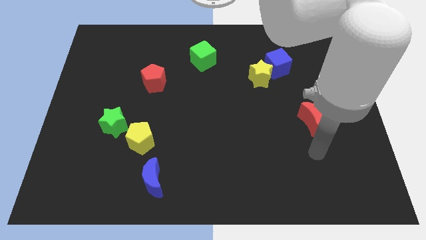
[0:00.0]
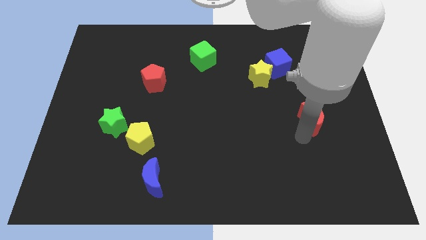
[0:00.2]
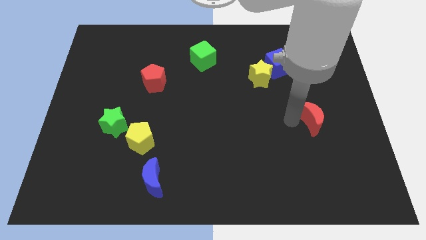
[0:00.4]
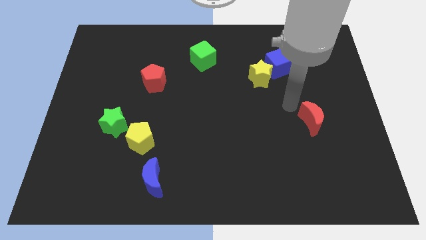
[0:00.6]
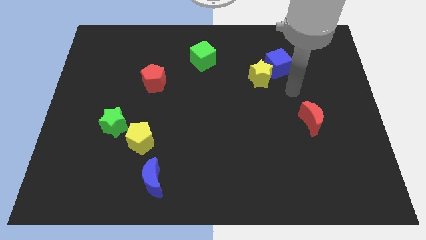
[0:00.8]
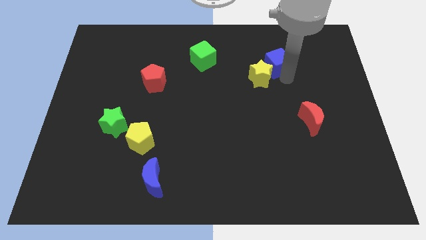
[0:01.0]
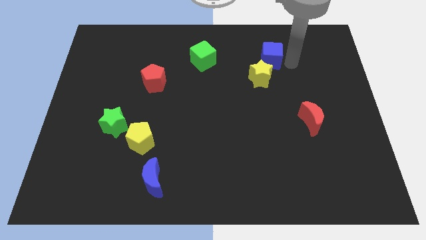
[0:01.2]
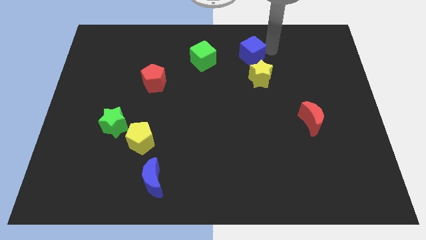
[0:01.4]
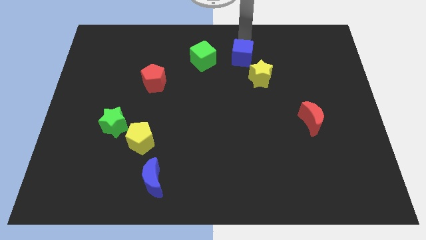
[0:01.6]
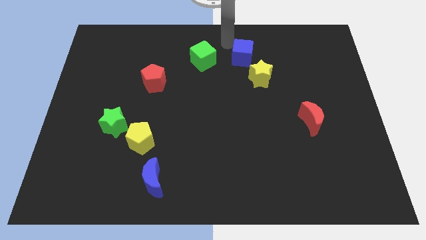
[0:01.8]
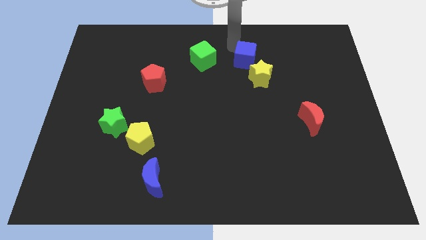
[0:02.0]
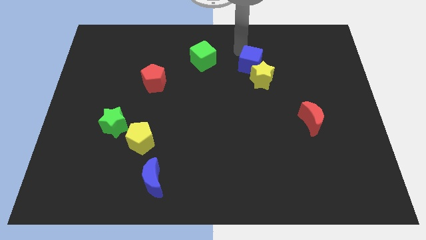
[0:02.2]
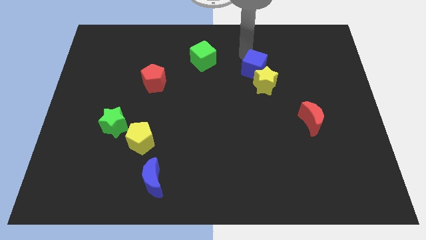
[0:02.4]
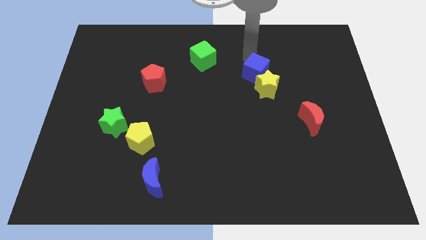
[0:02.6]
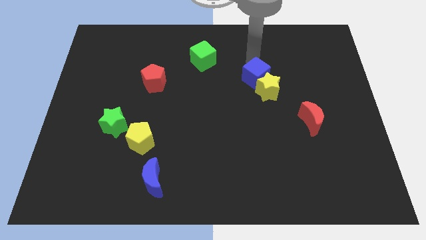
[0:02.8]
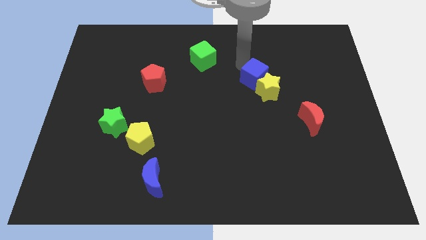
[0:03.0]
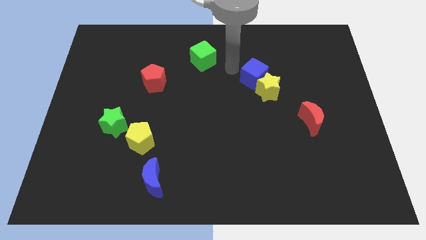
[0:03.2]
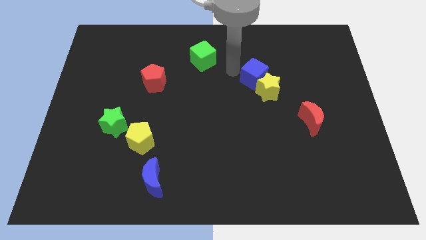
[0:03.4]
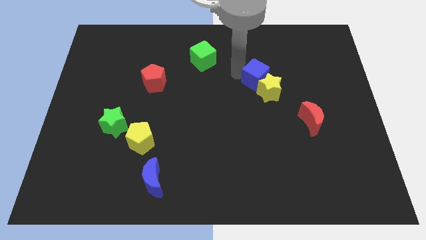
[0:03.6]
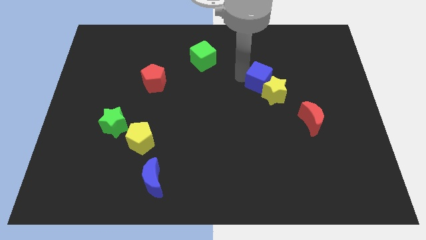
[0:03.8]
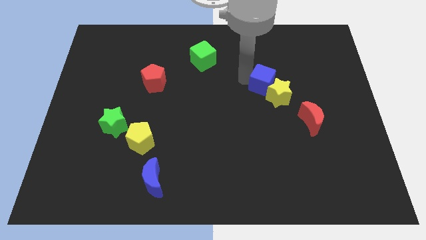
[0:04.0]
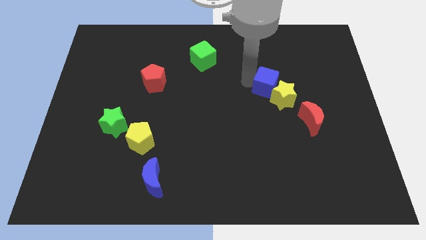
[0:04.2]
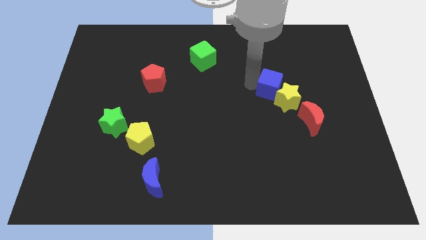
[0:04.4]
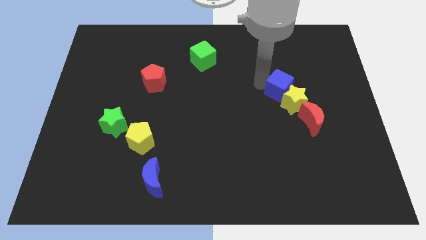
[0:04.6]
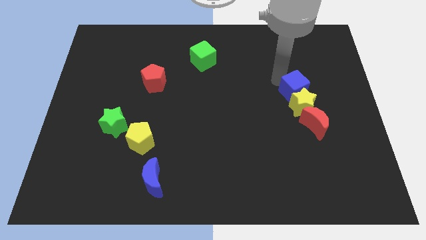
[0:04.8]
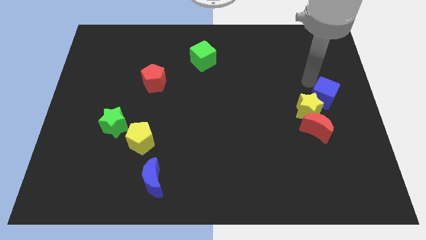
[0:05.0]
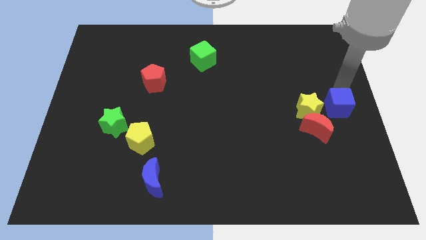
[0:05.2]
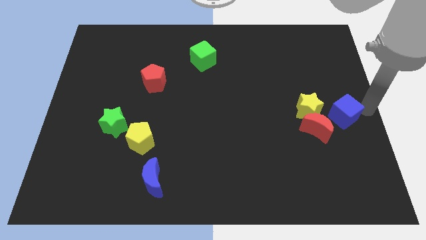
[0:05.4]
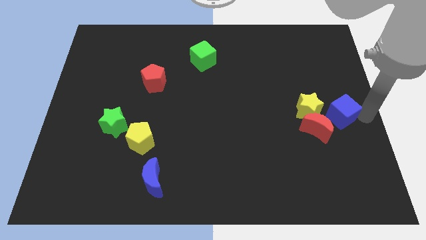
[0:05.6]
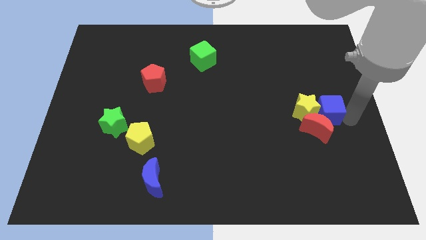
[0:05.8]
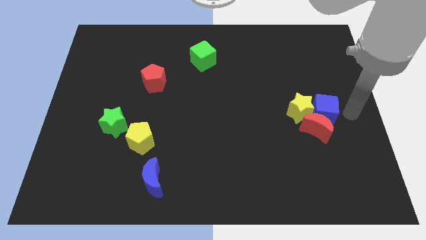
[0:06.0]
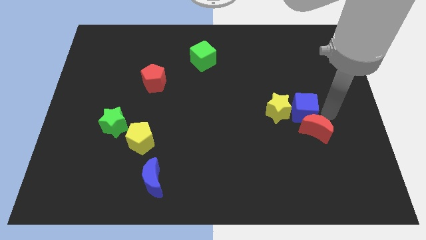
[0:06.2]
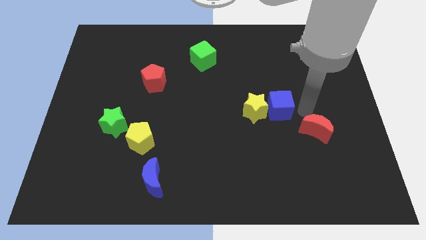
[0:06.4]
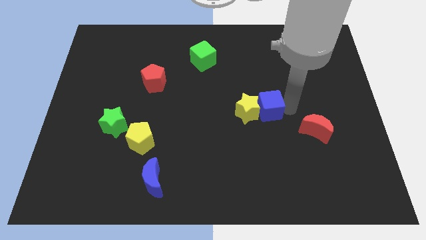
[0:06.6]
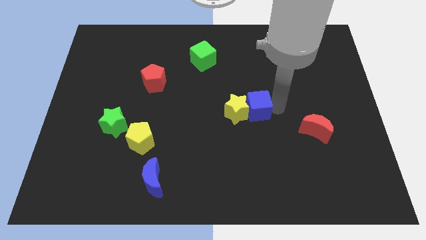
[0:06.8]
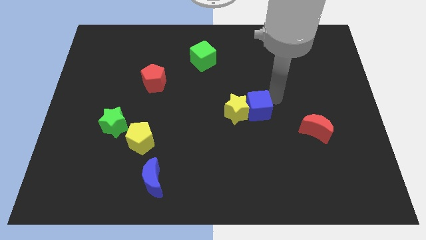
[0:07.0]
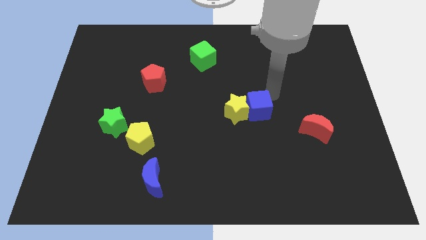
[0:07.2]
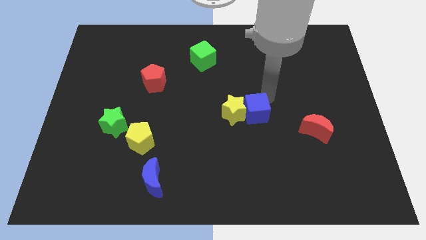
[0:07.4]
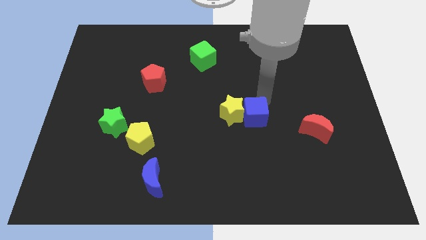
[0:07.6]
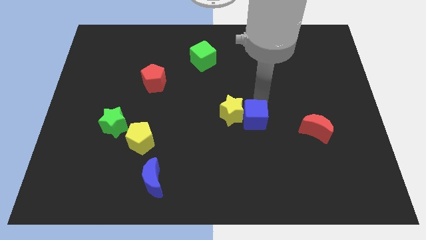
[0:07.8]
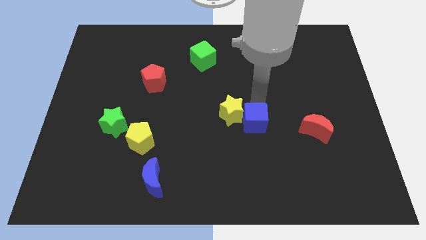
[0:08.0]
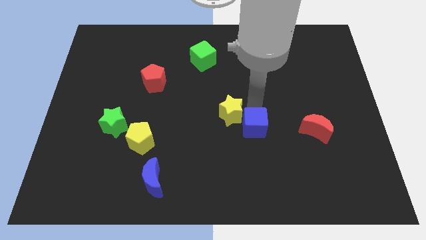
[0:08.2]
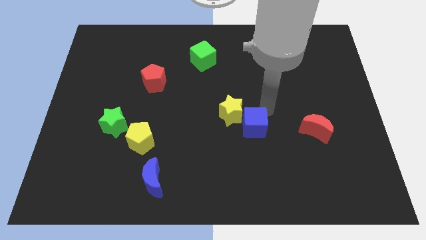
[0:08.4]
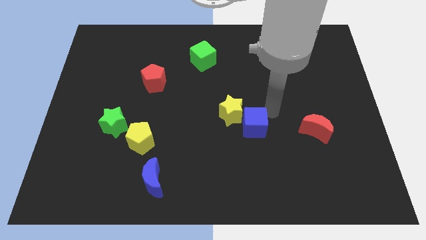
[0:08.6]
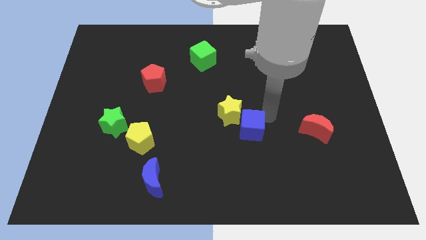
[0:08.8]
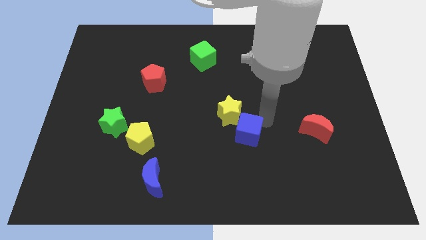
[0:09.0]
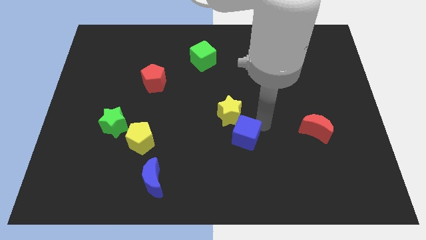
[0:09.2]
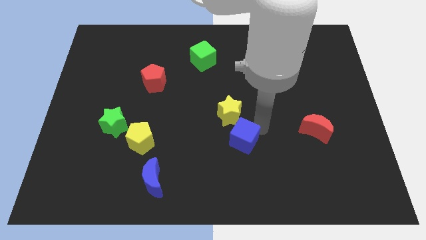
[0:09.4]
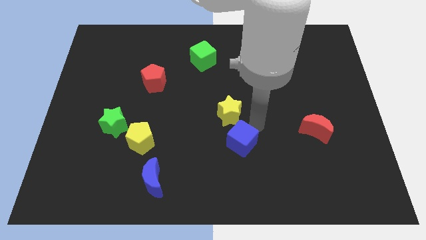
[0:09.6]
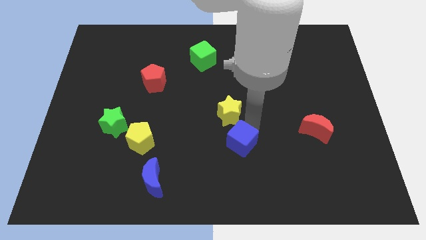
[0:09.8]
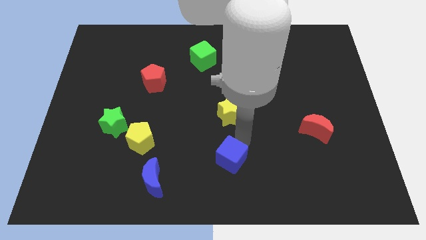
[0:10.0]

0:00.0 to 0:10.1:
push the blue cube to the bottom

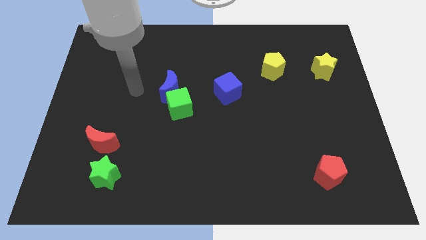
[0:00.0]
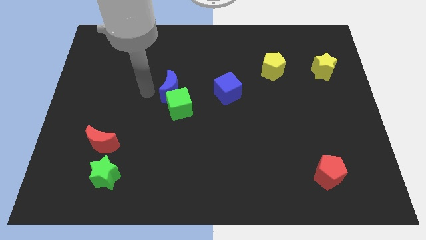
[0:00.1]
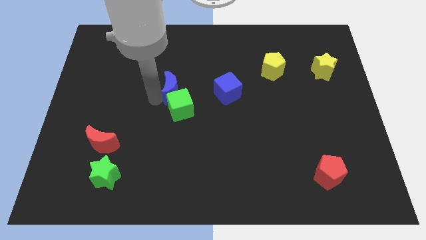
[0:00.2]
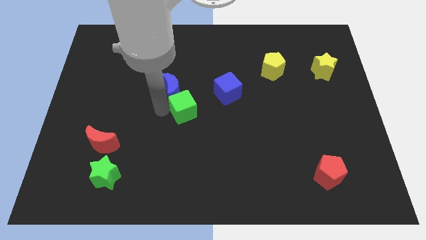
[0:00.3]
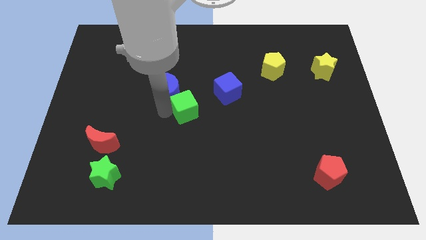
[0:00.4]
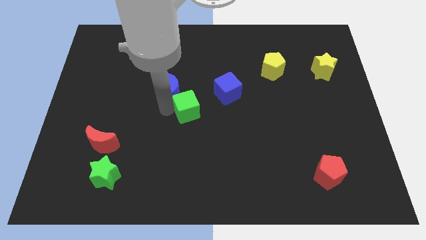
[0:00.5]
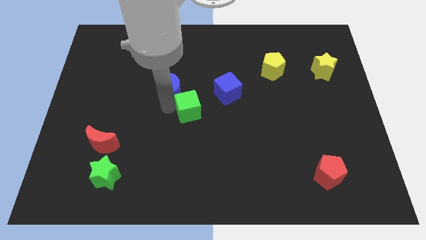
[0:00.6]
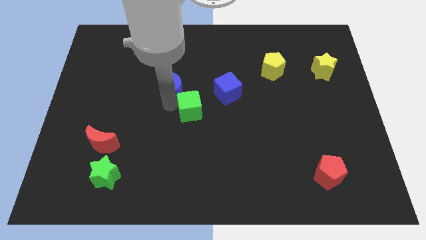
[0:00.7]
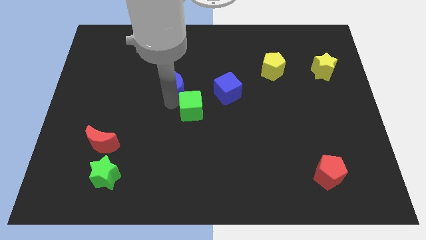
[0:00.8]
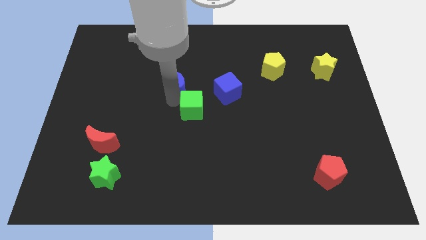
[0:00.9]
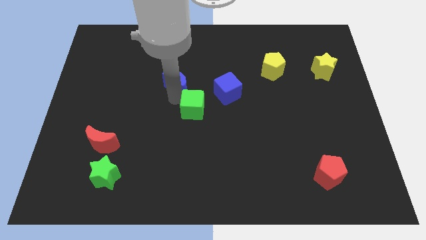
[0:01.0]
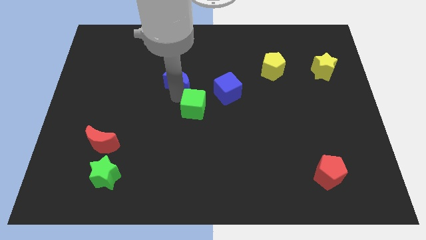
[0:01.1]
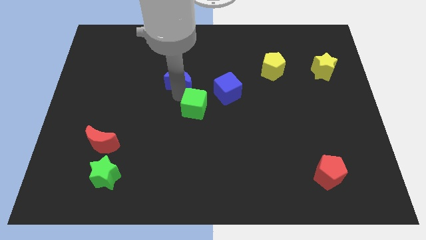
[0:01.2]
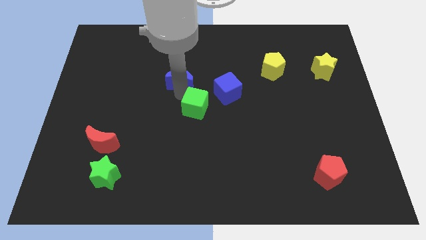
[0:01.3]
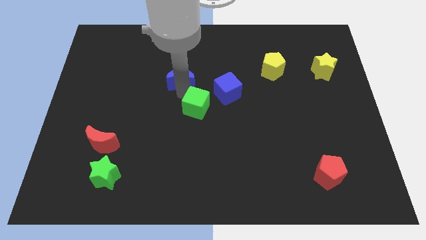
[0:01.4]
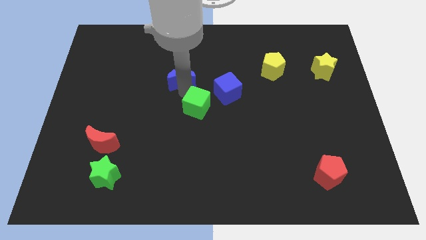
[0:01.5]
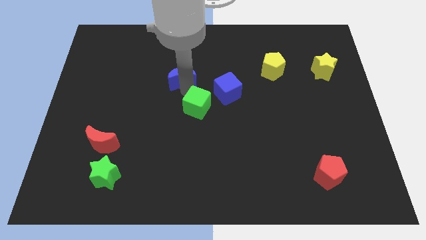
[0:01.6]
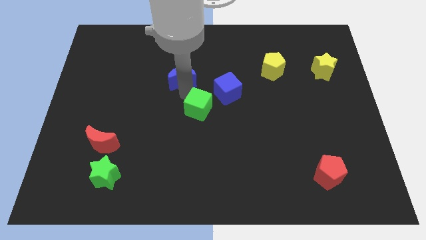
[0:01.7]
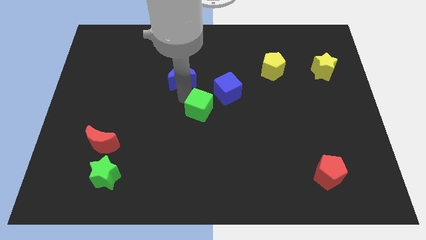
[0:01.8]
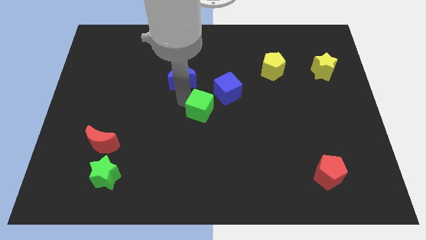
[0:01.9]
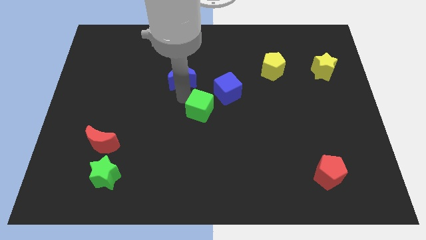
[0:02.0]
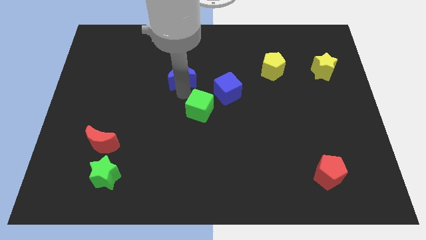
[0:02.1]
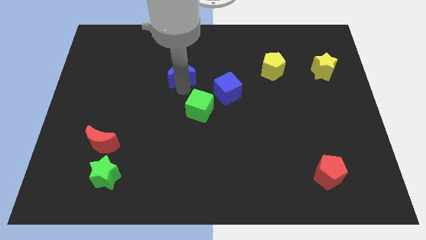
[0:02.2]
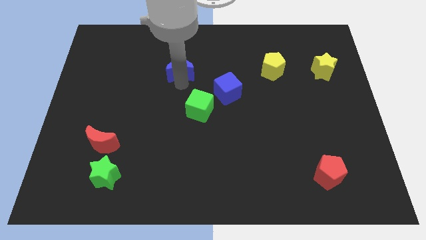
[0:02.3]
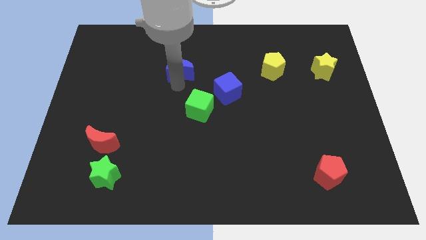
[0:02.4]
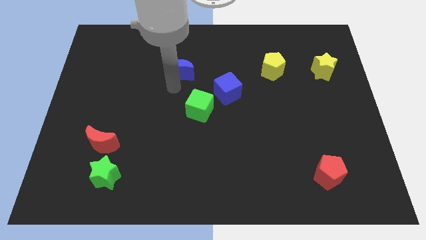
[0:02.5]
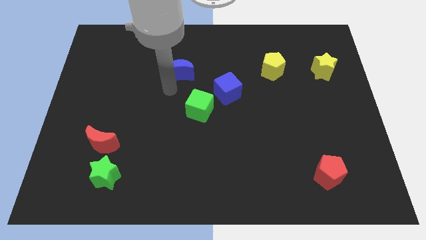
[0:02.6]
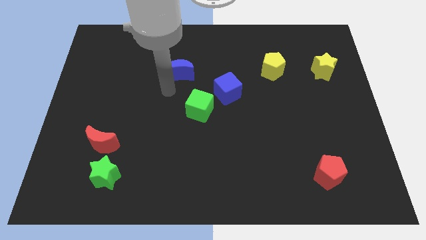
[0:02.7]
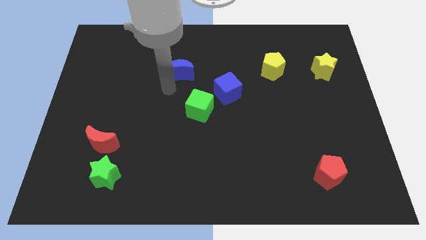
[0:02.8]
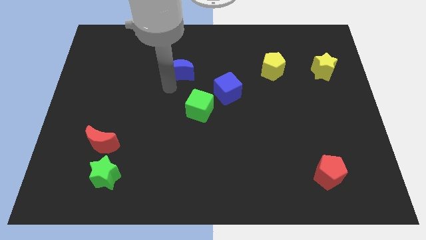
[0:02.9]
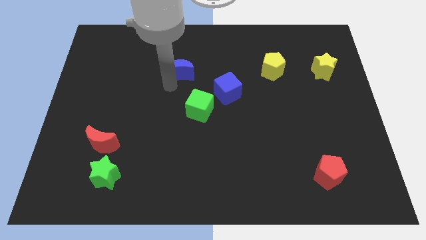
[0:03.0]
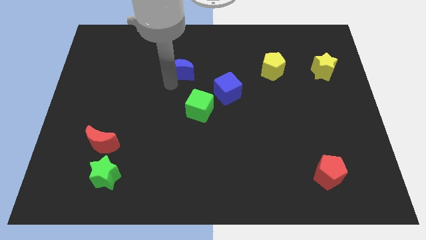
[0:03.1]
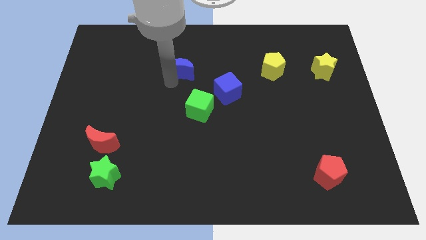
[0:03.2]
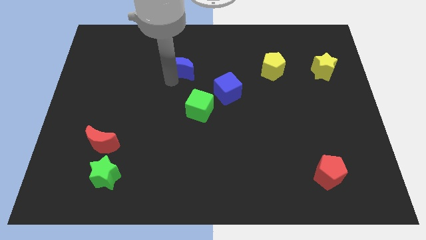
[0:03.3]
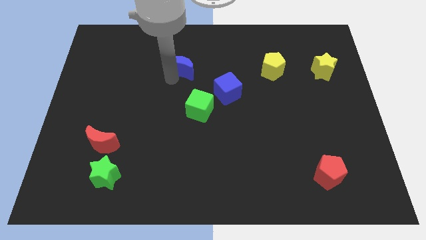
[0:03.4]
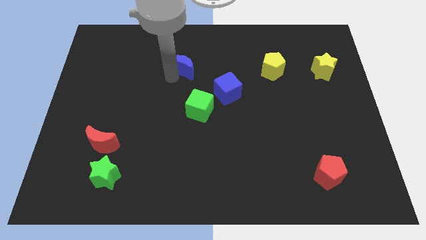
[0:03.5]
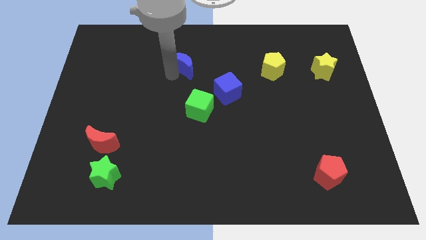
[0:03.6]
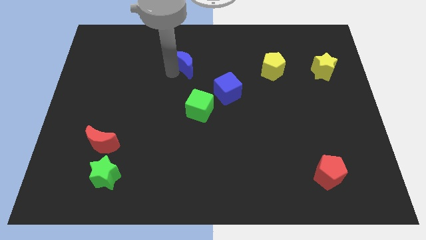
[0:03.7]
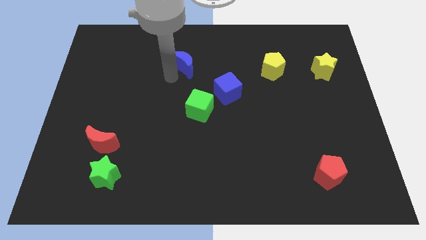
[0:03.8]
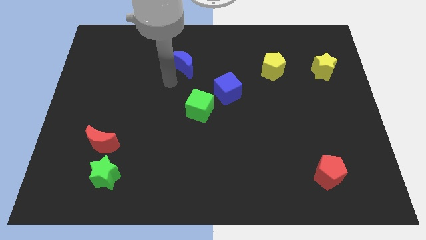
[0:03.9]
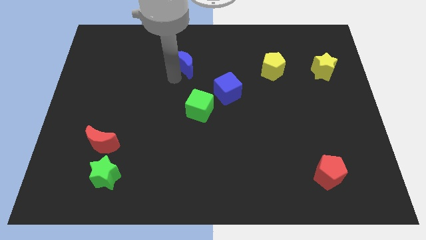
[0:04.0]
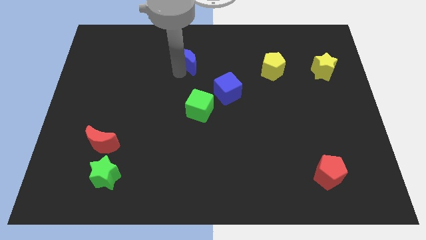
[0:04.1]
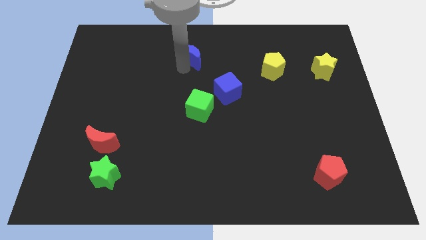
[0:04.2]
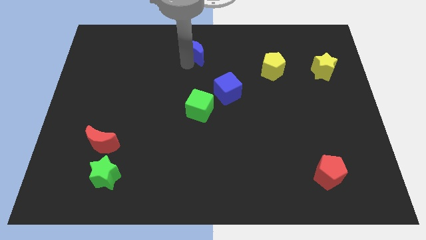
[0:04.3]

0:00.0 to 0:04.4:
push the blue moon to the top
